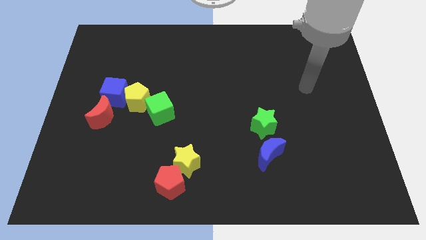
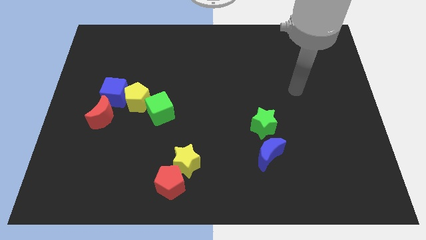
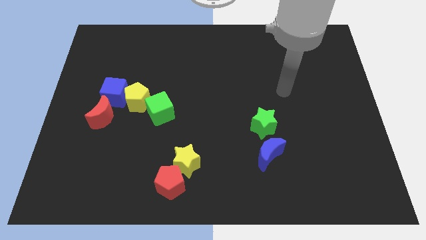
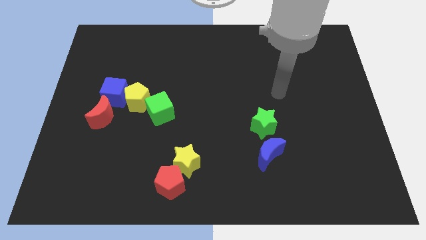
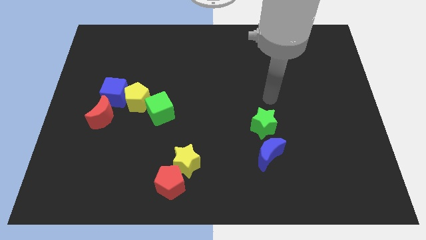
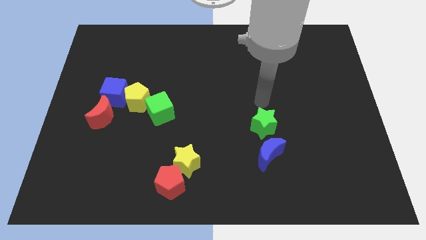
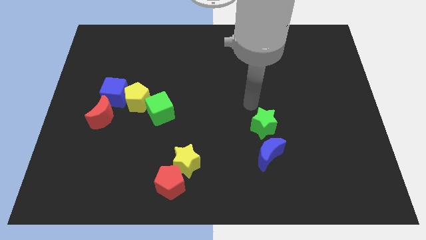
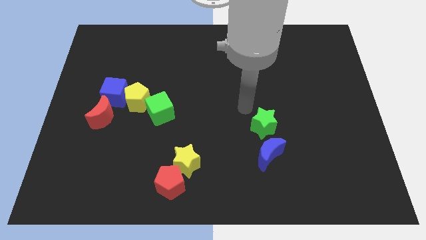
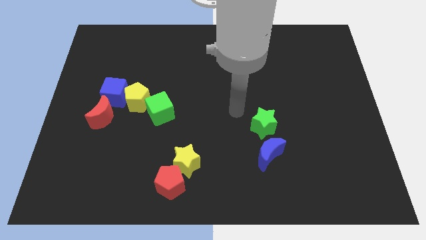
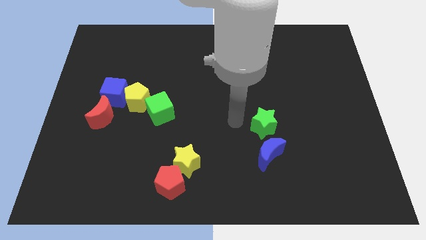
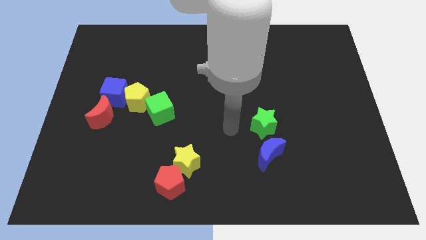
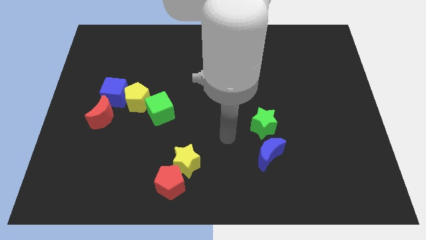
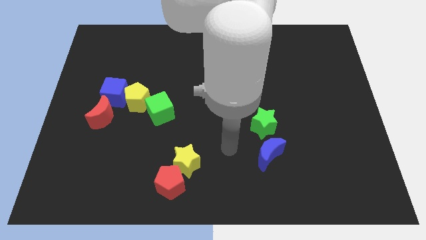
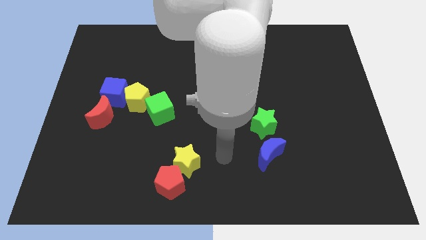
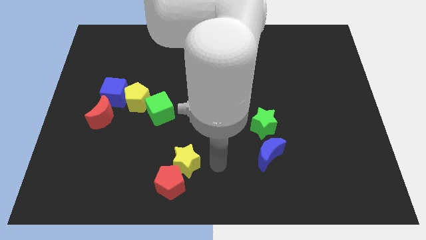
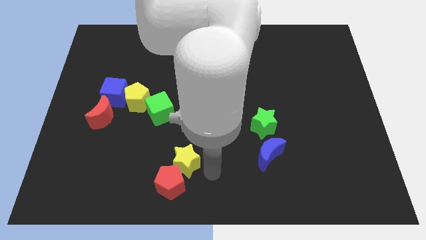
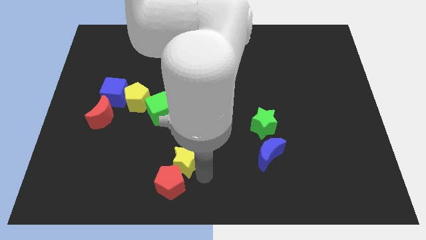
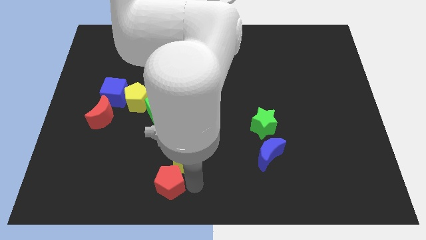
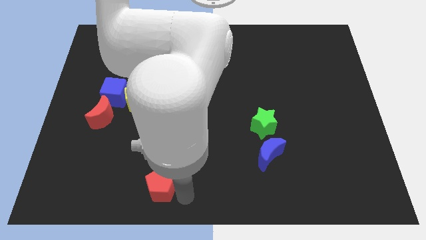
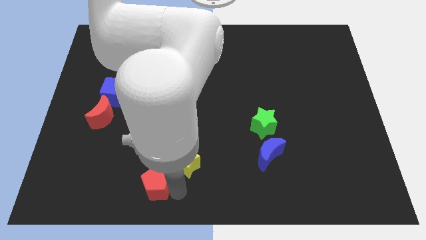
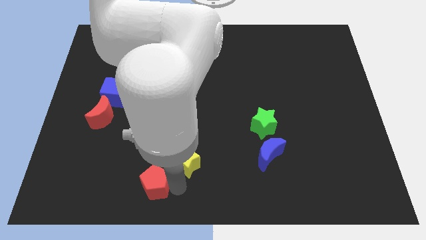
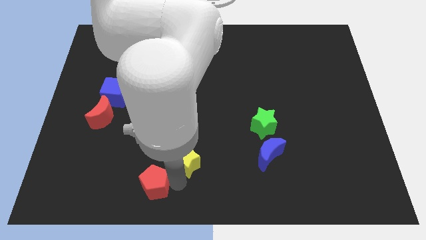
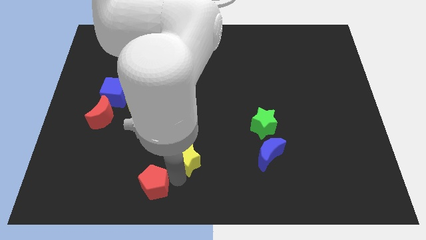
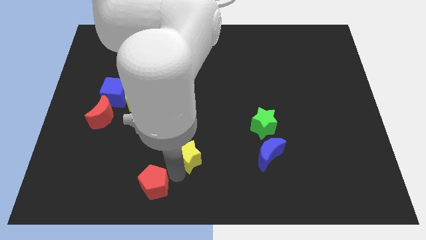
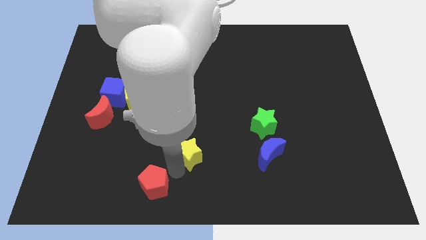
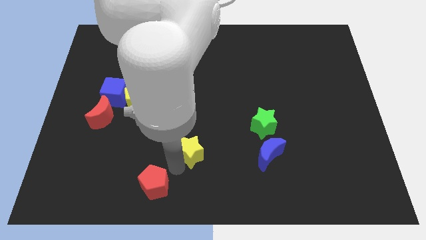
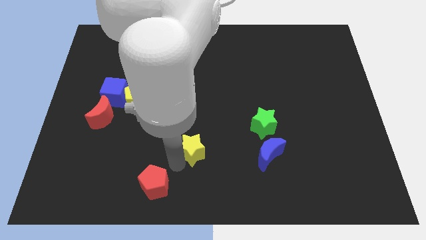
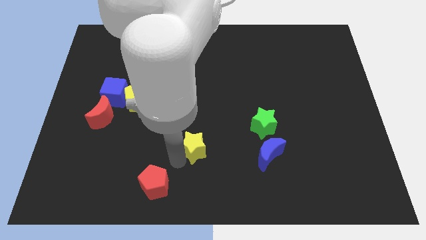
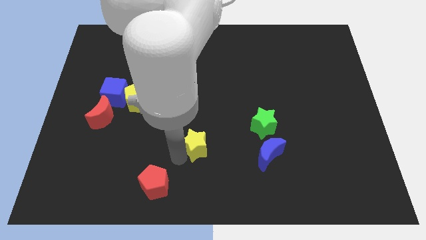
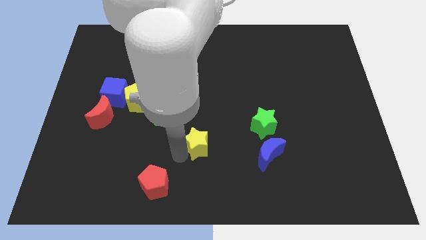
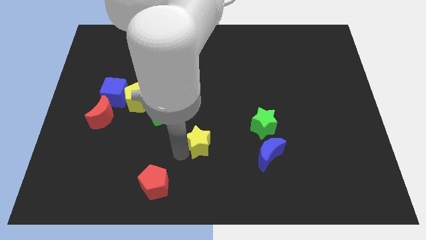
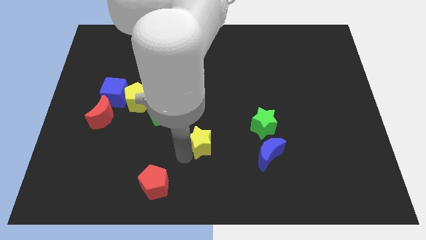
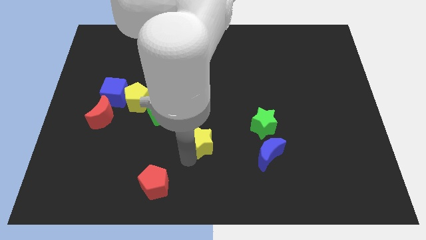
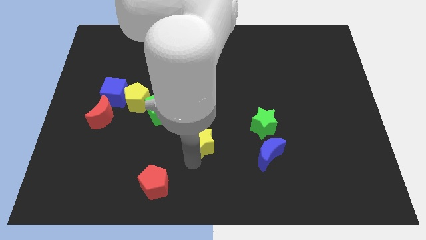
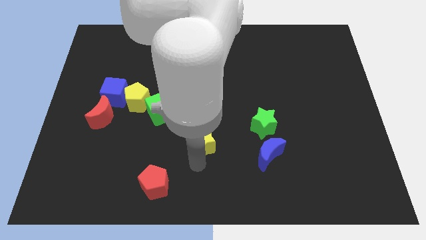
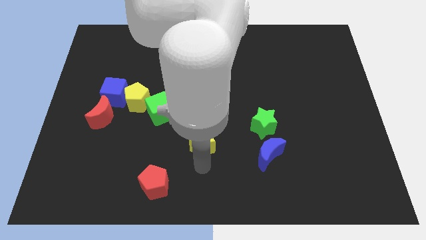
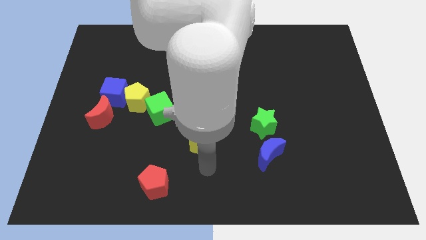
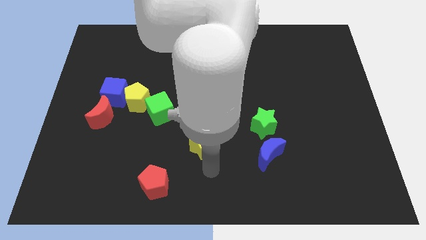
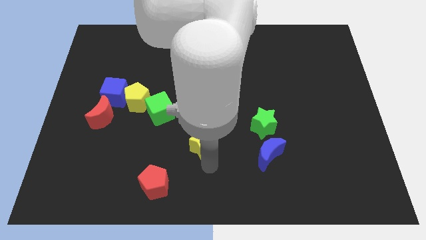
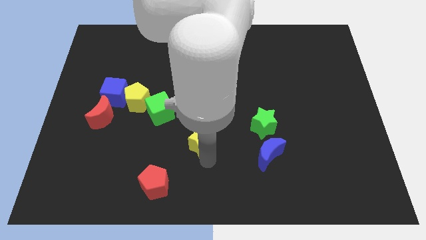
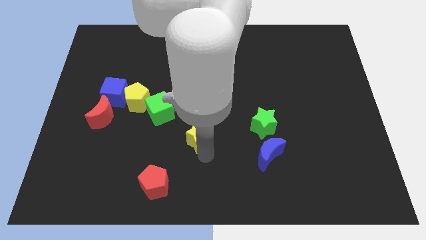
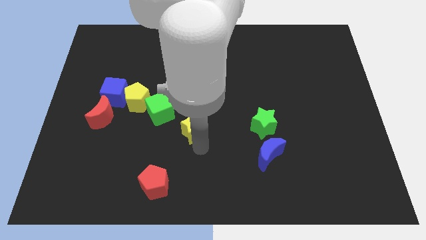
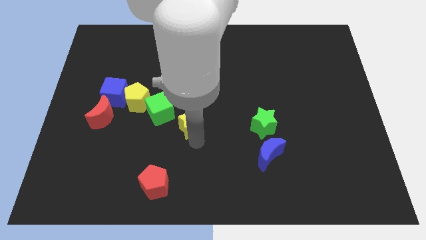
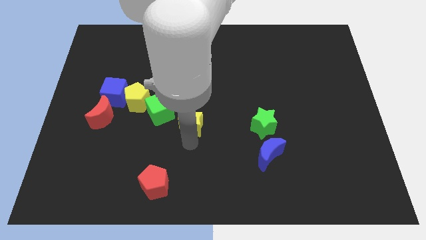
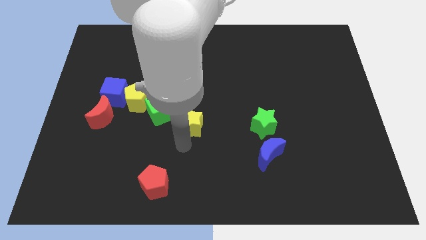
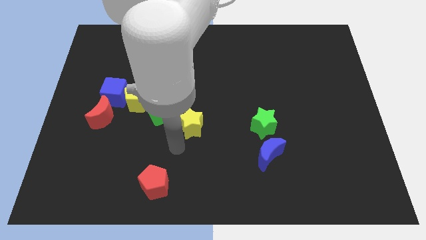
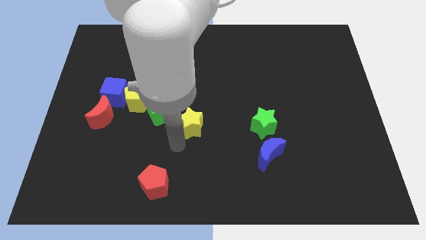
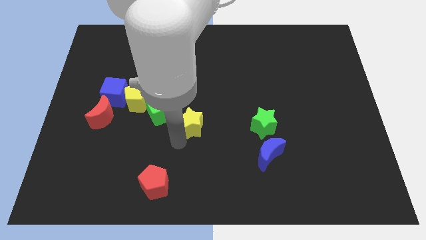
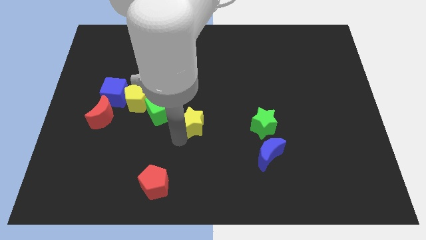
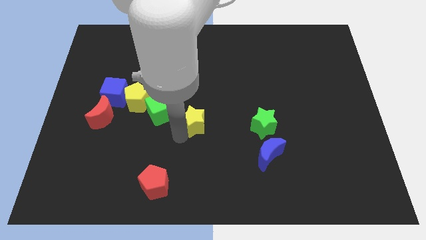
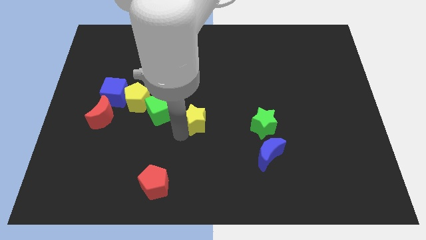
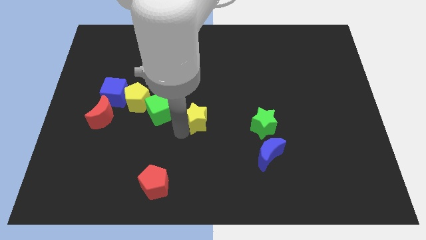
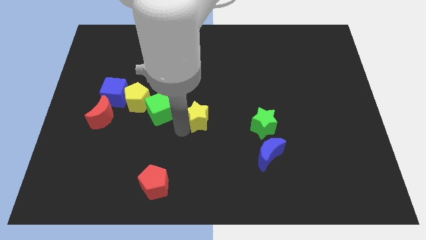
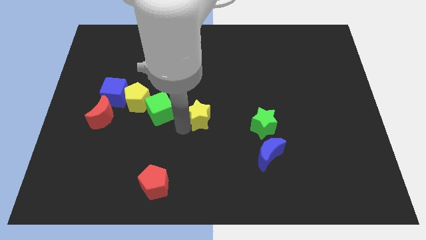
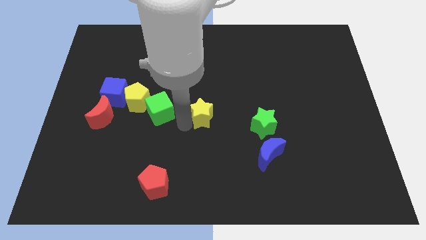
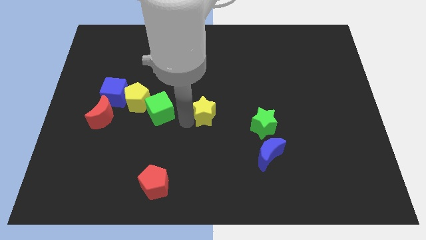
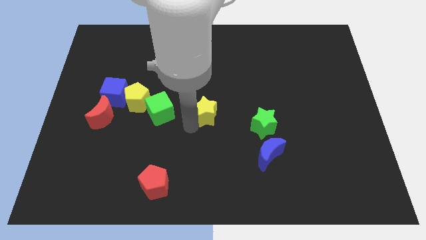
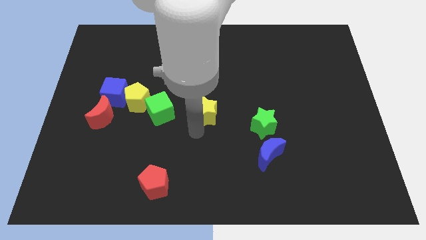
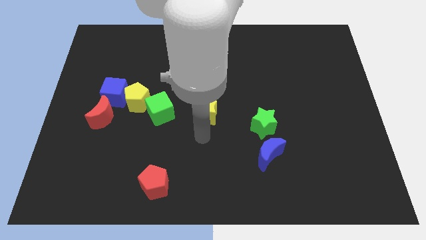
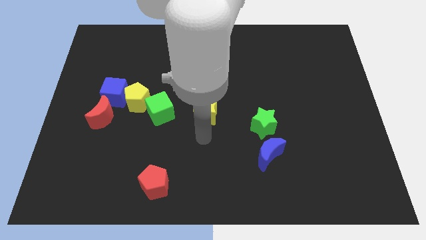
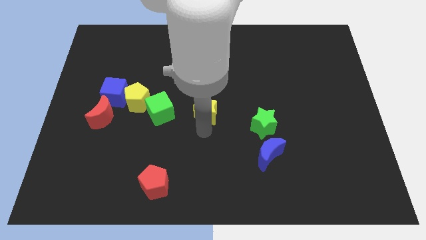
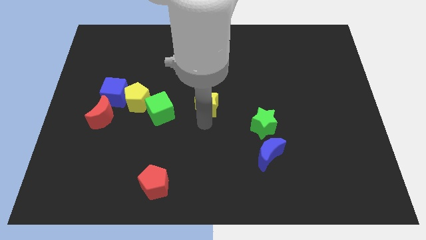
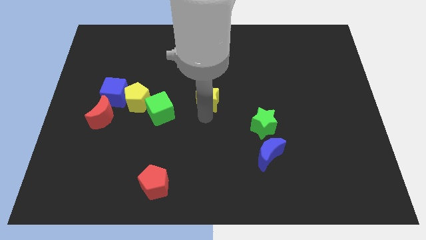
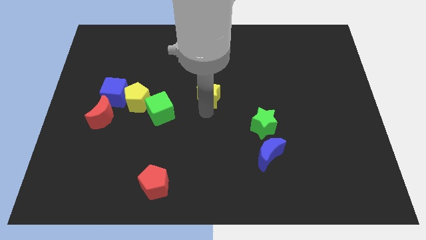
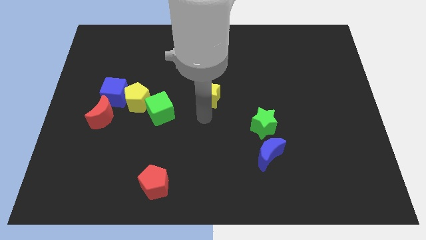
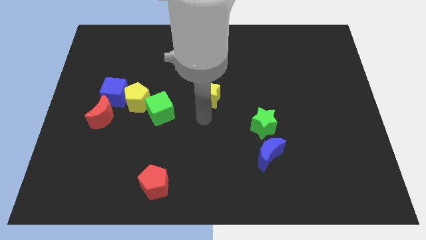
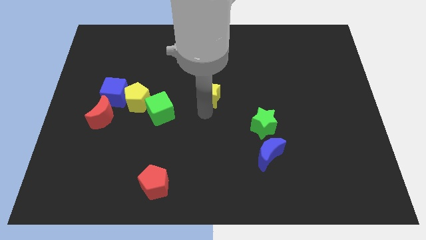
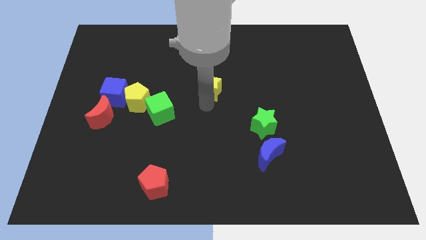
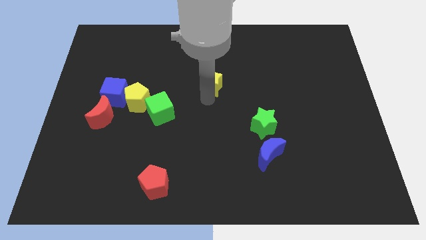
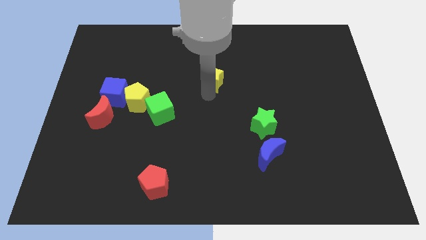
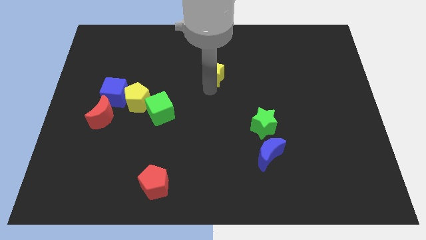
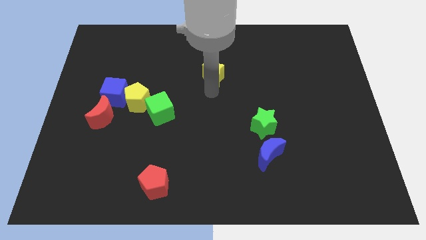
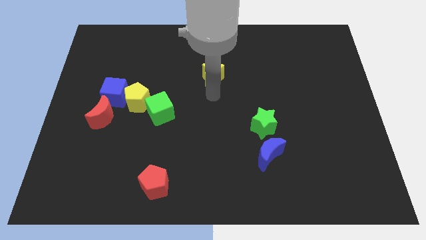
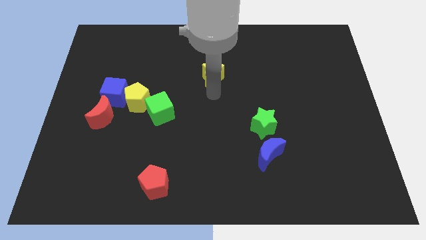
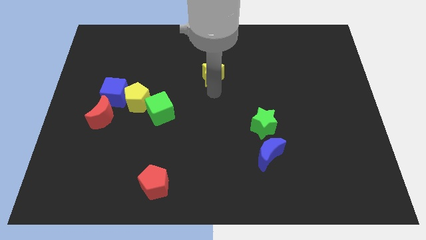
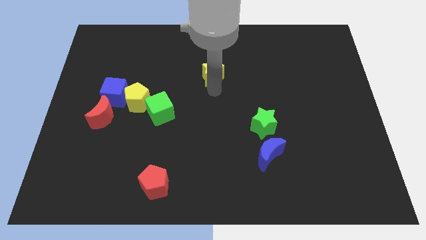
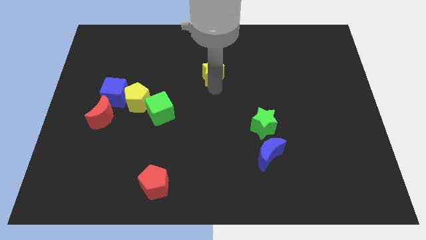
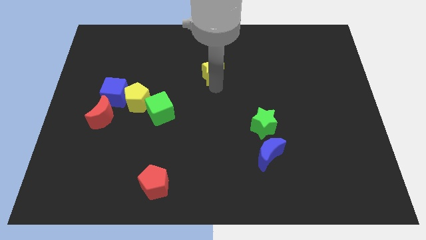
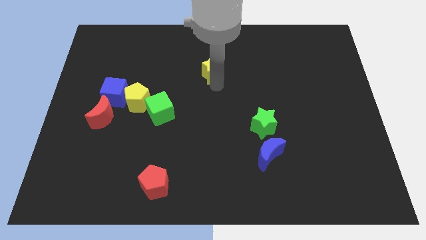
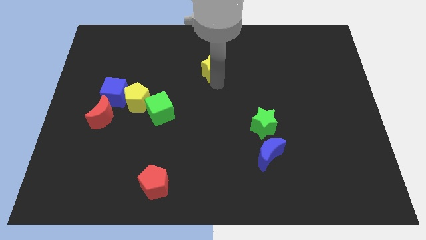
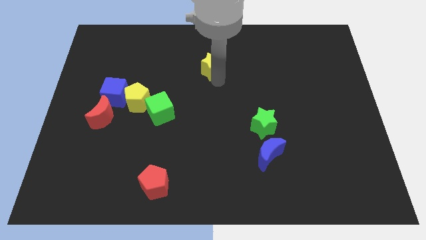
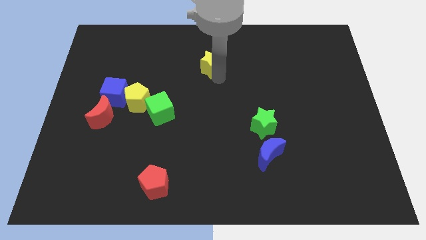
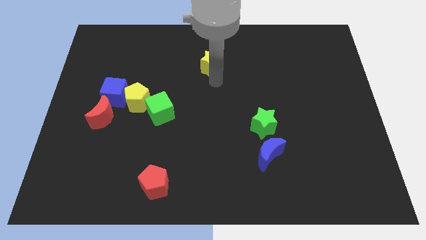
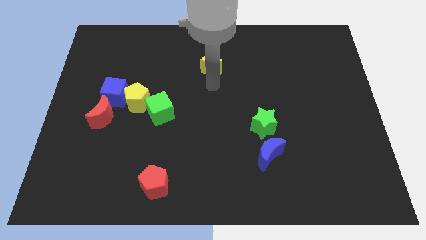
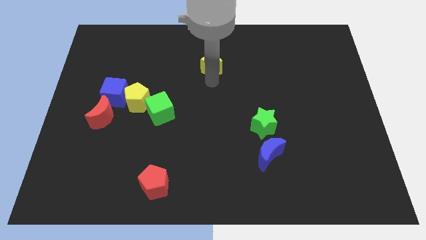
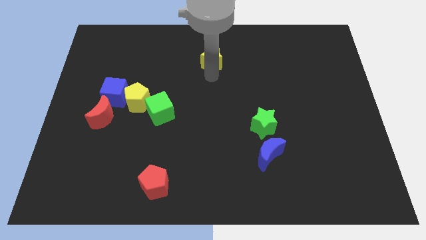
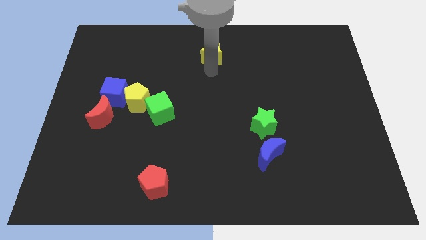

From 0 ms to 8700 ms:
put the yellow star to the top
